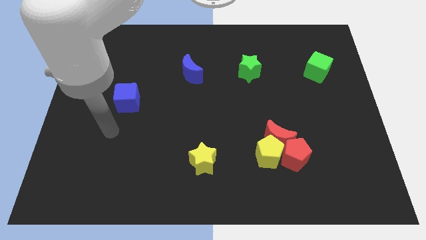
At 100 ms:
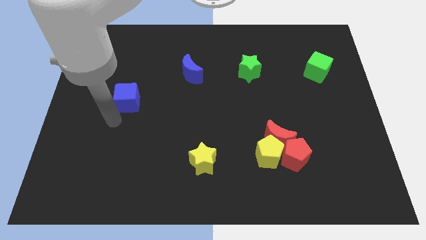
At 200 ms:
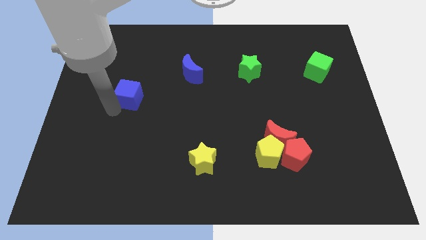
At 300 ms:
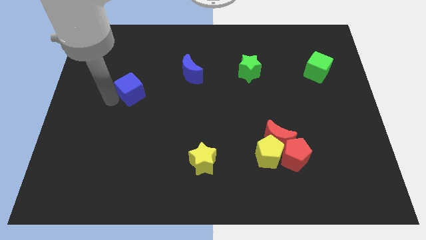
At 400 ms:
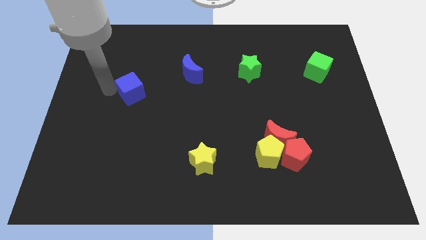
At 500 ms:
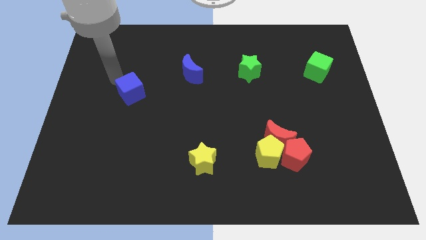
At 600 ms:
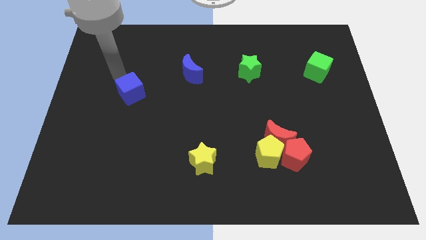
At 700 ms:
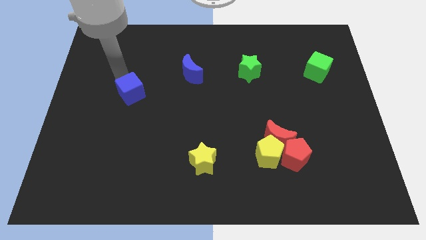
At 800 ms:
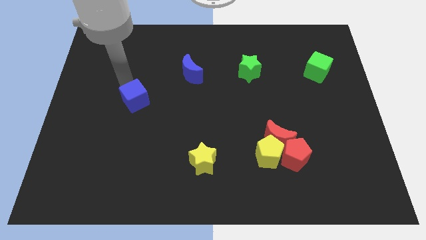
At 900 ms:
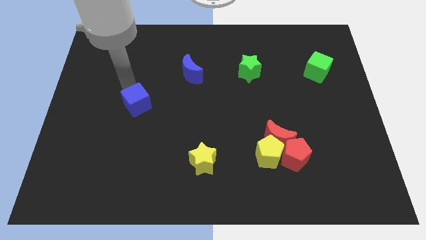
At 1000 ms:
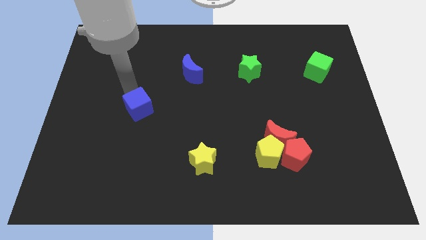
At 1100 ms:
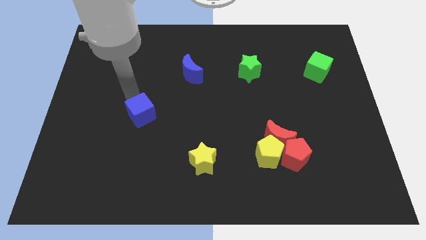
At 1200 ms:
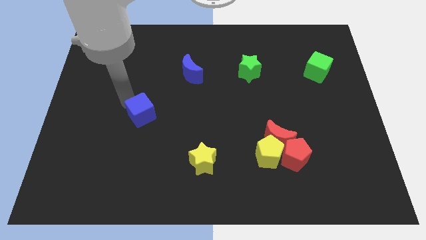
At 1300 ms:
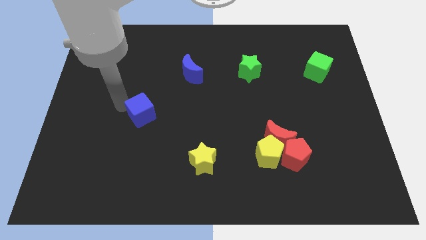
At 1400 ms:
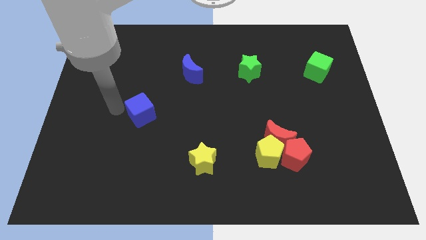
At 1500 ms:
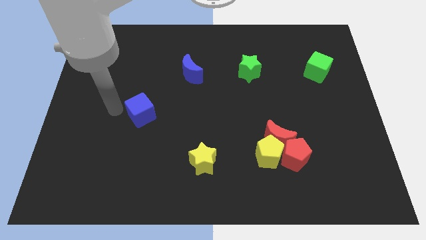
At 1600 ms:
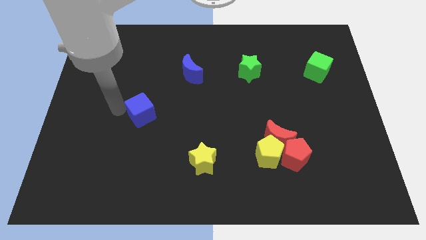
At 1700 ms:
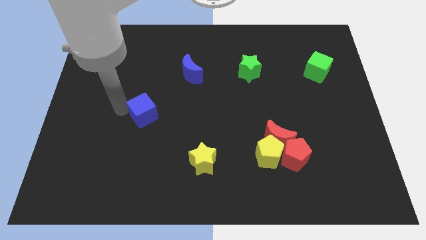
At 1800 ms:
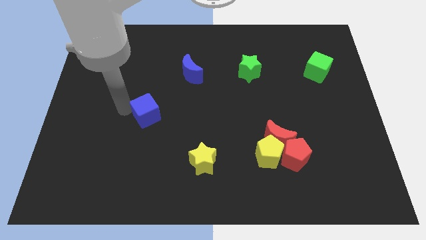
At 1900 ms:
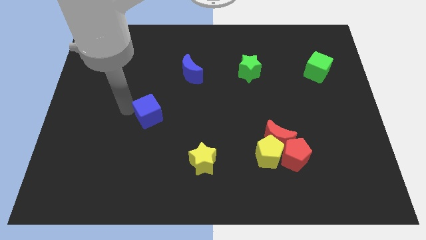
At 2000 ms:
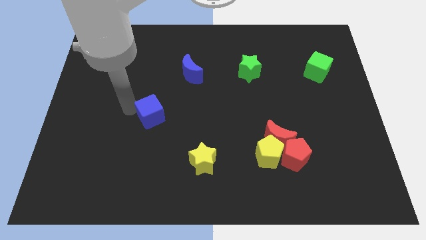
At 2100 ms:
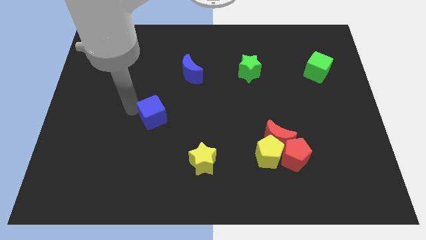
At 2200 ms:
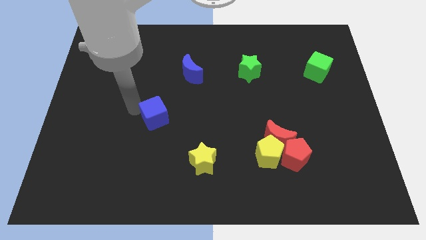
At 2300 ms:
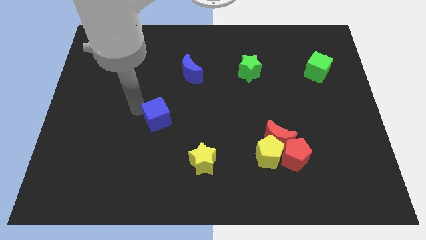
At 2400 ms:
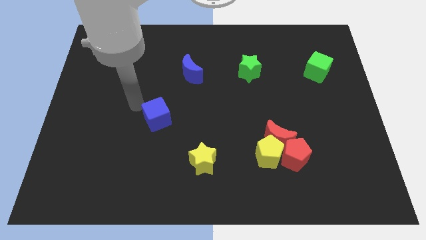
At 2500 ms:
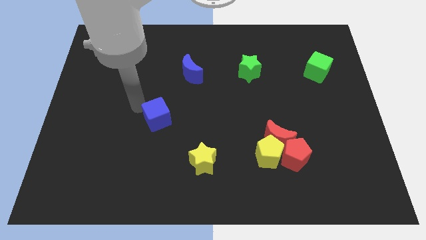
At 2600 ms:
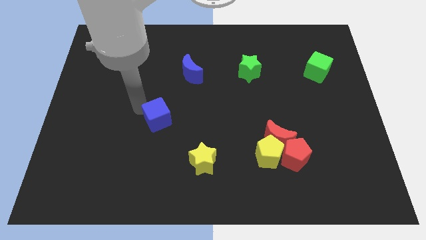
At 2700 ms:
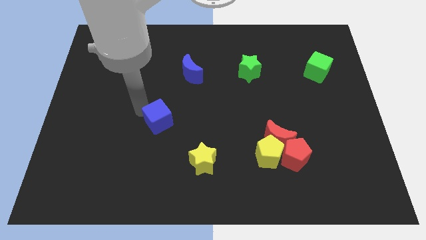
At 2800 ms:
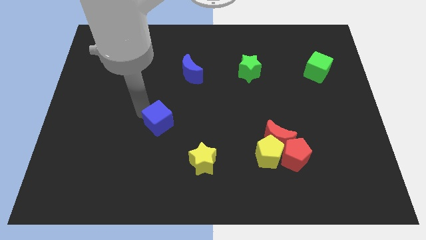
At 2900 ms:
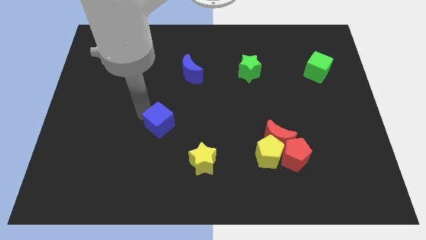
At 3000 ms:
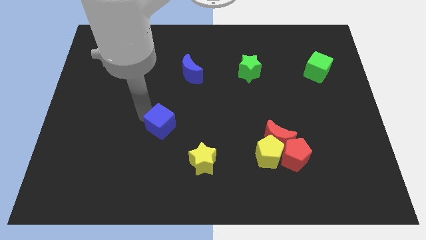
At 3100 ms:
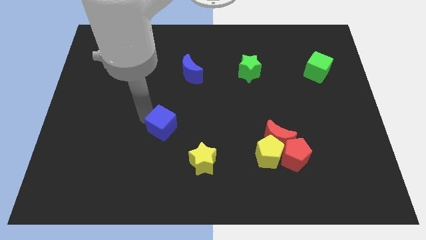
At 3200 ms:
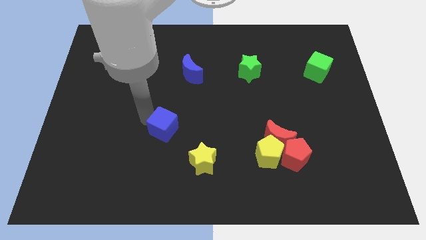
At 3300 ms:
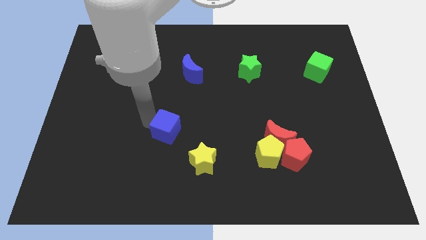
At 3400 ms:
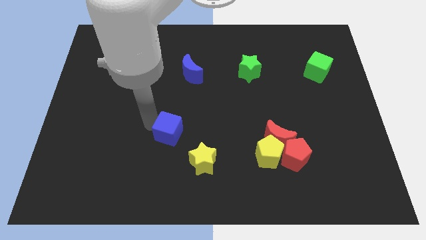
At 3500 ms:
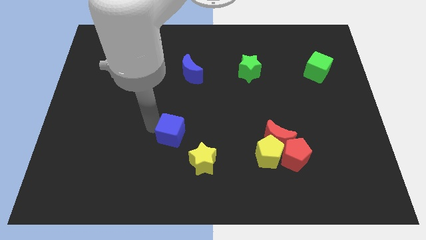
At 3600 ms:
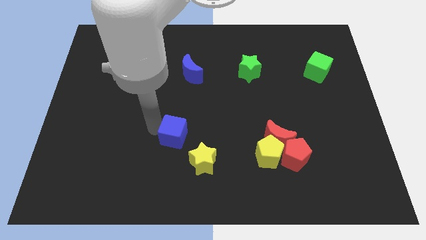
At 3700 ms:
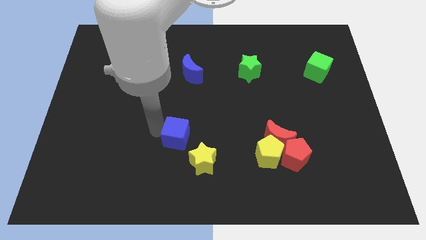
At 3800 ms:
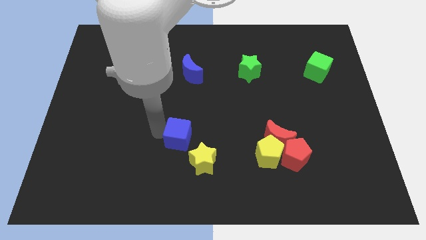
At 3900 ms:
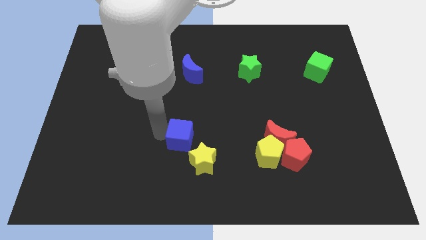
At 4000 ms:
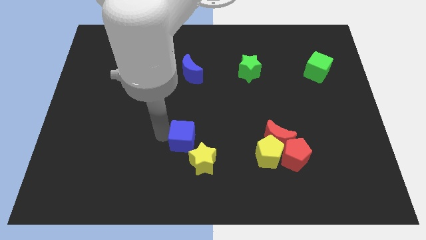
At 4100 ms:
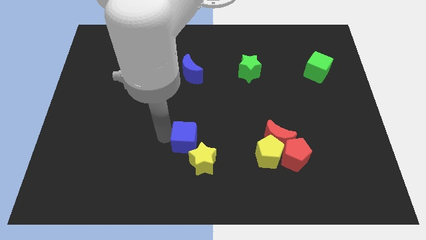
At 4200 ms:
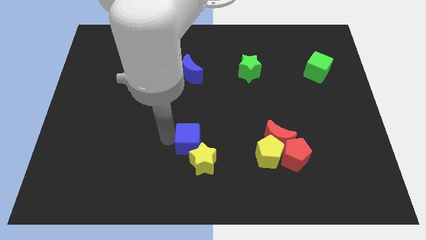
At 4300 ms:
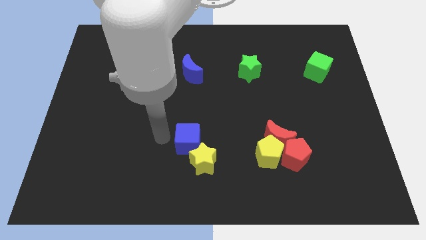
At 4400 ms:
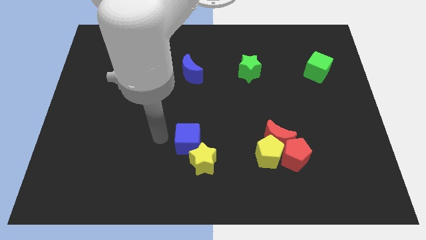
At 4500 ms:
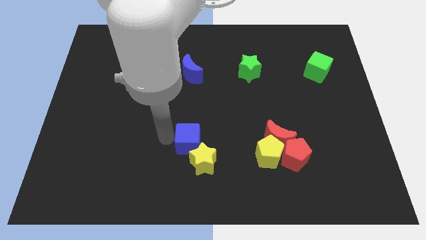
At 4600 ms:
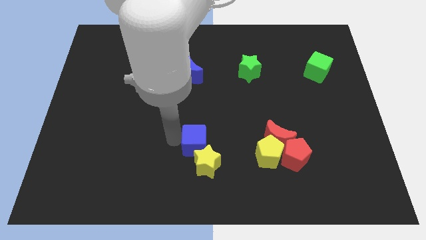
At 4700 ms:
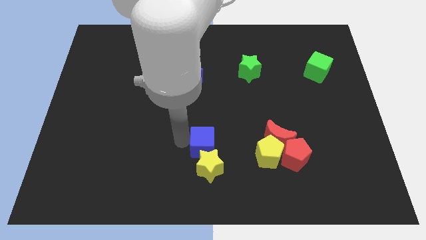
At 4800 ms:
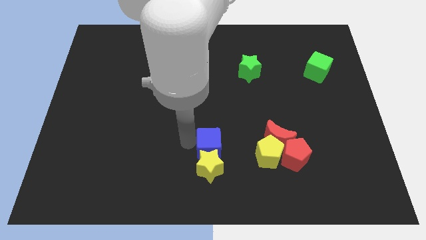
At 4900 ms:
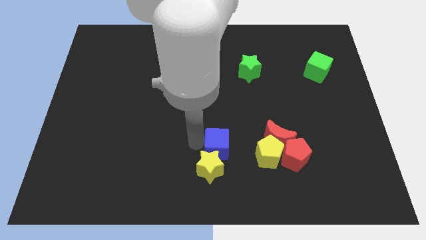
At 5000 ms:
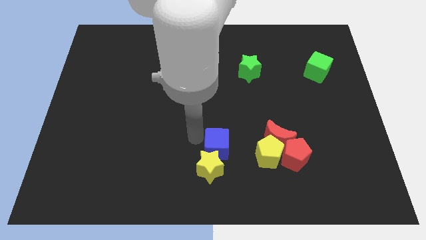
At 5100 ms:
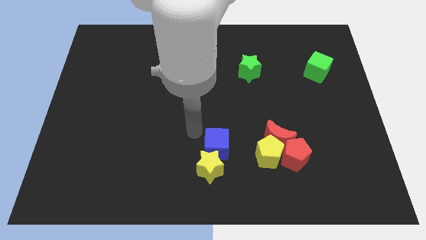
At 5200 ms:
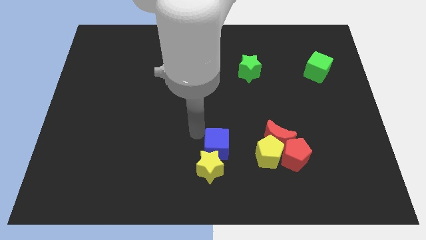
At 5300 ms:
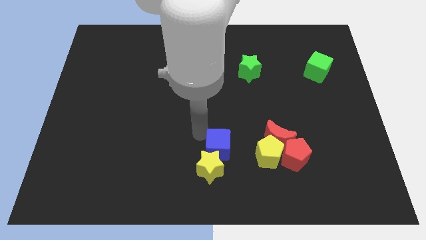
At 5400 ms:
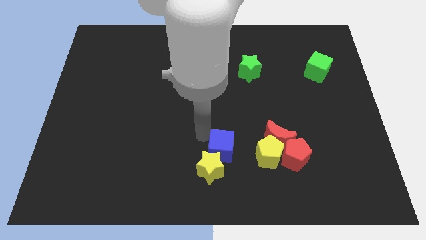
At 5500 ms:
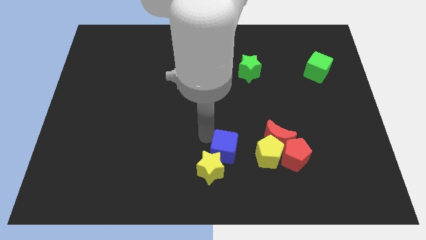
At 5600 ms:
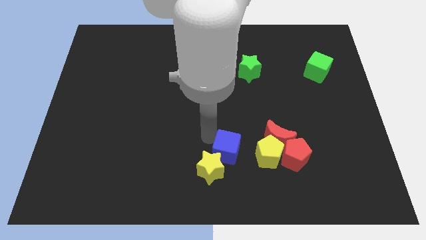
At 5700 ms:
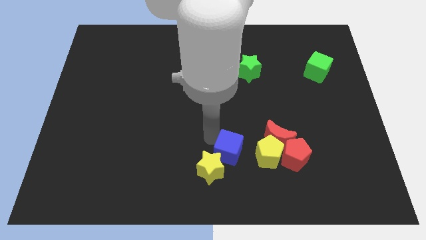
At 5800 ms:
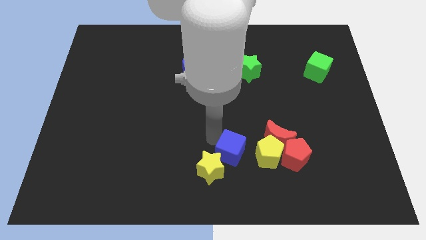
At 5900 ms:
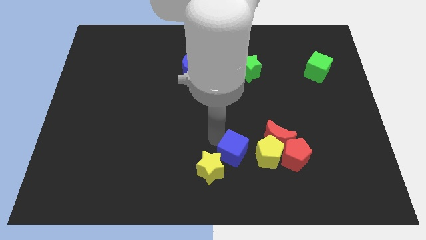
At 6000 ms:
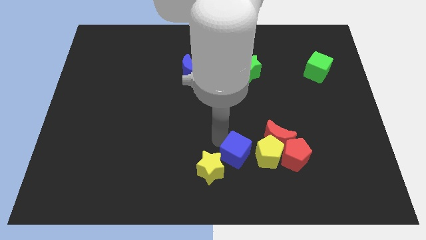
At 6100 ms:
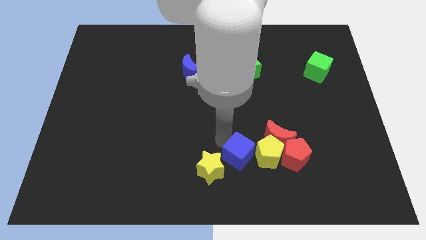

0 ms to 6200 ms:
slide the blue cube diagonally down and to the left of the yellow pentagon

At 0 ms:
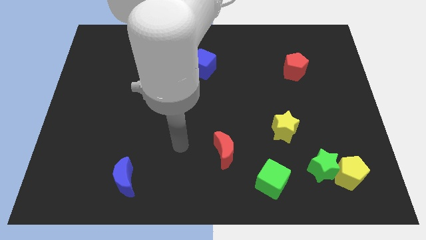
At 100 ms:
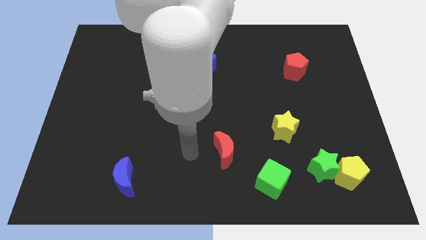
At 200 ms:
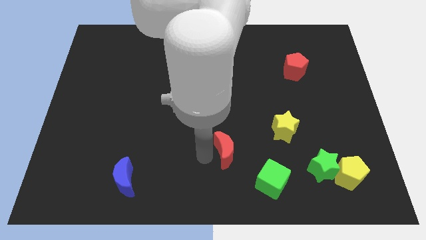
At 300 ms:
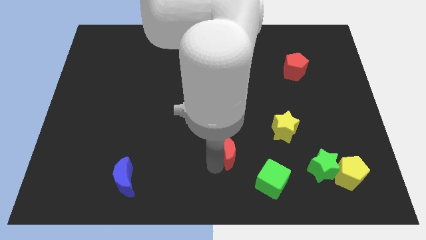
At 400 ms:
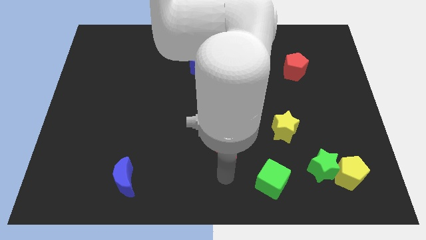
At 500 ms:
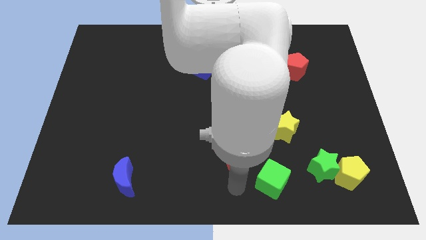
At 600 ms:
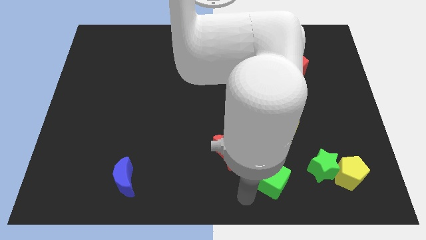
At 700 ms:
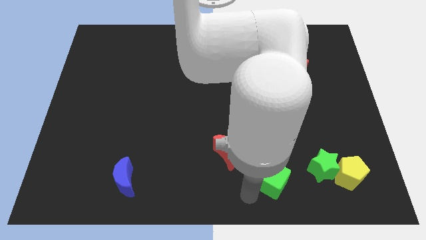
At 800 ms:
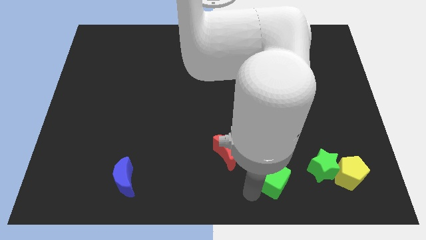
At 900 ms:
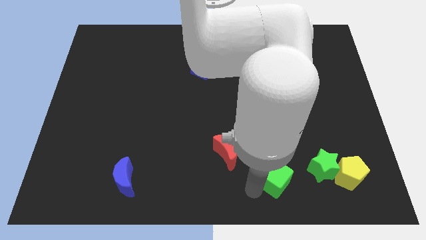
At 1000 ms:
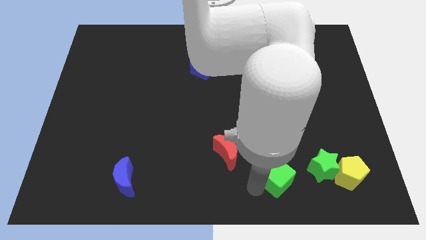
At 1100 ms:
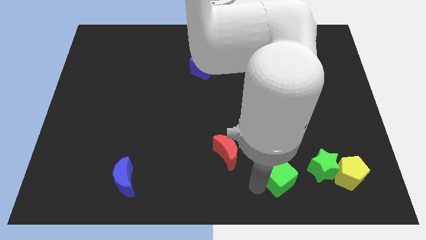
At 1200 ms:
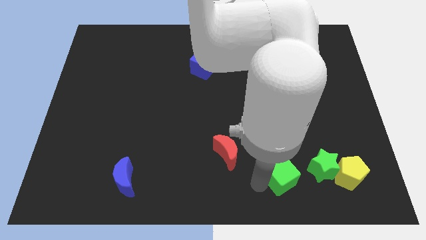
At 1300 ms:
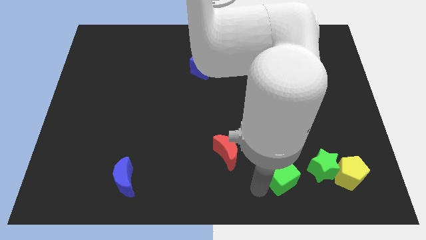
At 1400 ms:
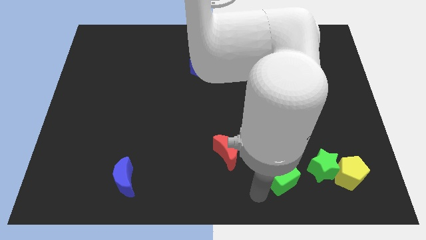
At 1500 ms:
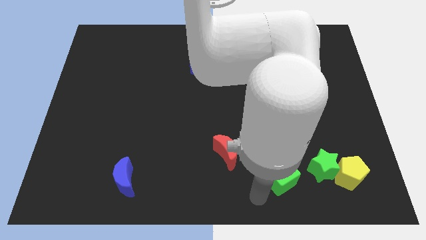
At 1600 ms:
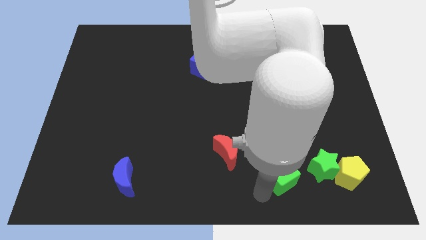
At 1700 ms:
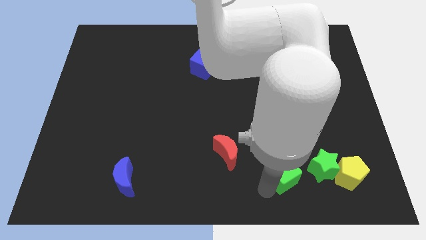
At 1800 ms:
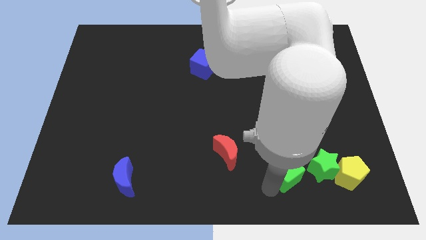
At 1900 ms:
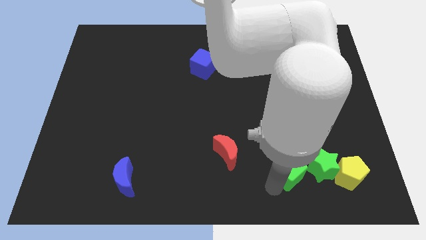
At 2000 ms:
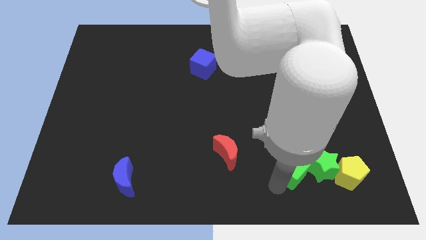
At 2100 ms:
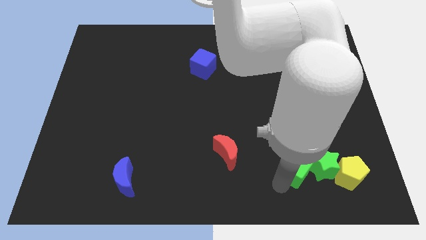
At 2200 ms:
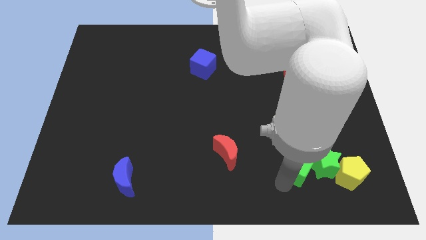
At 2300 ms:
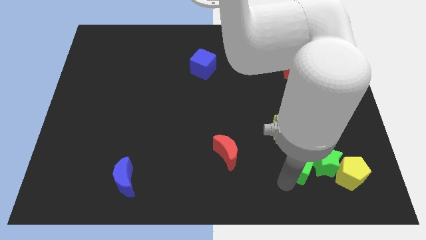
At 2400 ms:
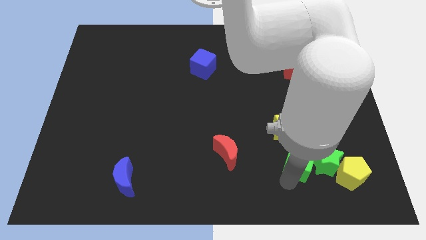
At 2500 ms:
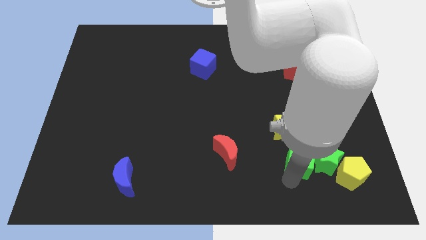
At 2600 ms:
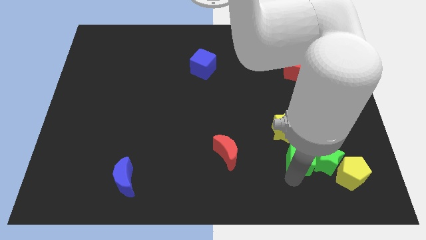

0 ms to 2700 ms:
slide the green cube to the top left side of the yellow pentagon
